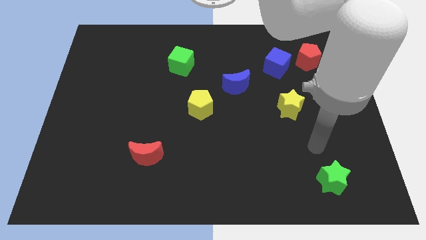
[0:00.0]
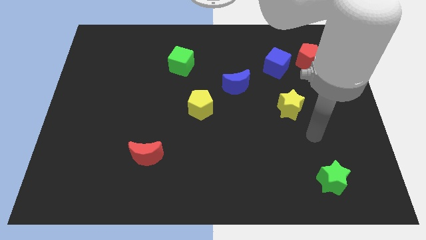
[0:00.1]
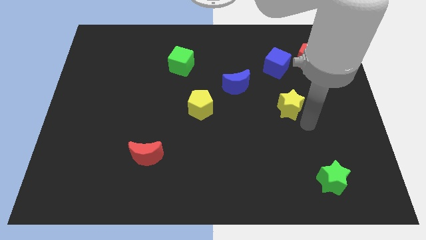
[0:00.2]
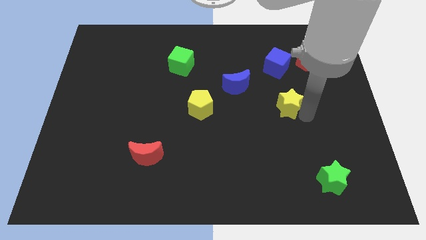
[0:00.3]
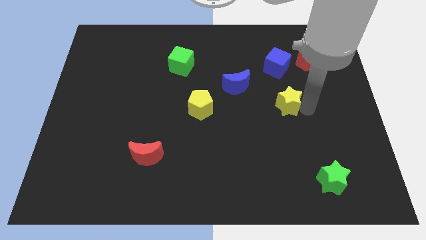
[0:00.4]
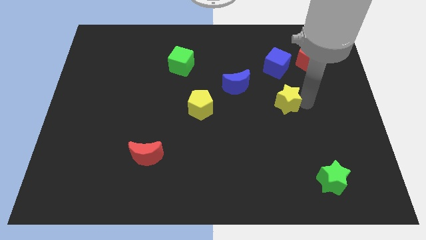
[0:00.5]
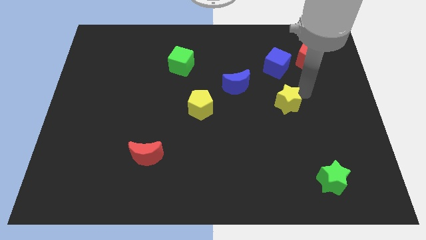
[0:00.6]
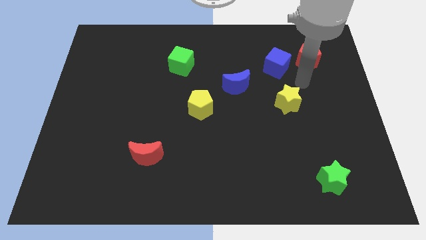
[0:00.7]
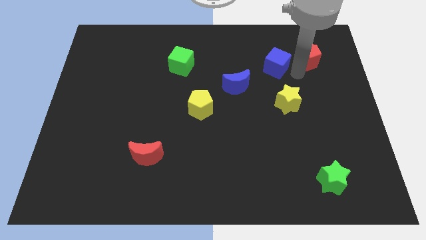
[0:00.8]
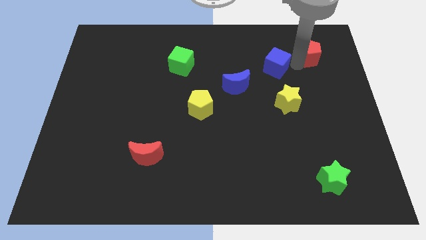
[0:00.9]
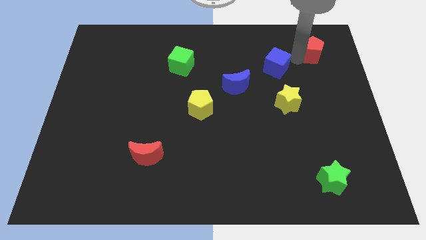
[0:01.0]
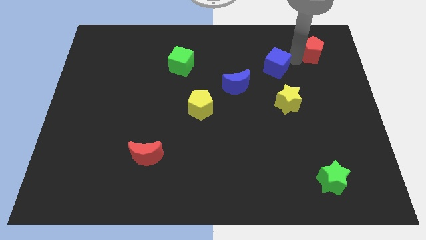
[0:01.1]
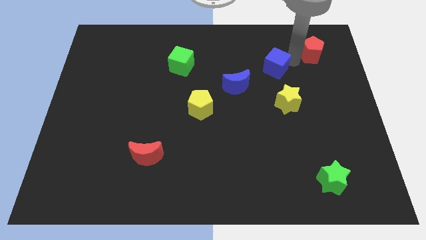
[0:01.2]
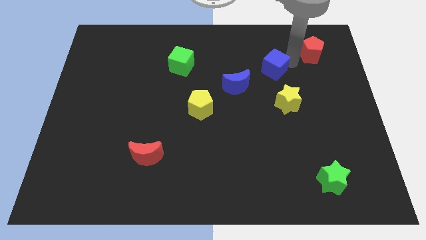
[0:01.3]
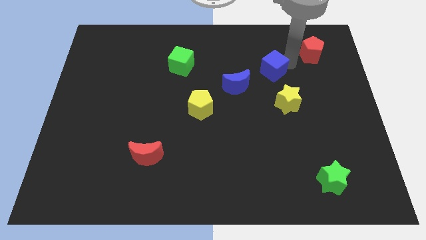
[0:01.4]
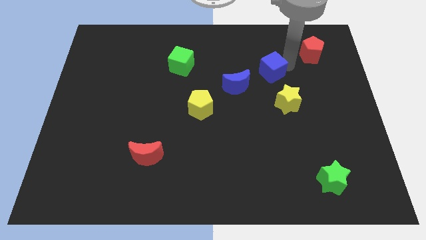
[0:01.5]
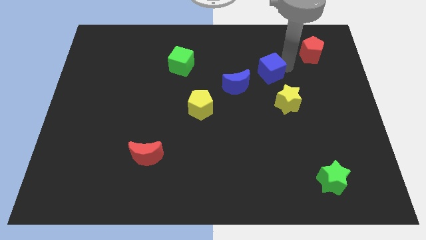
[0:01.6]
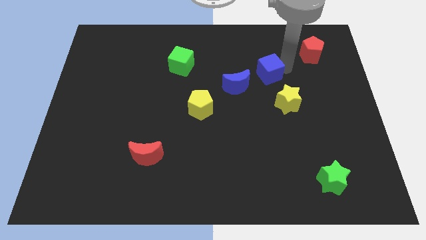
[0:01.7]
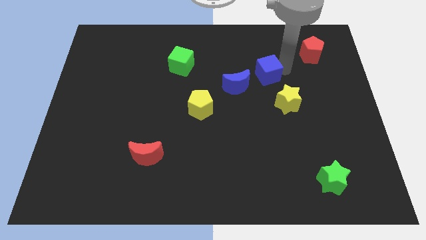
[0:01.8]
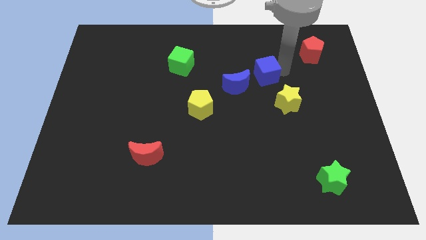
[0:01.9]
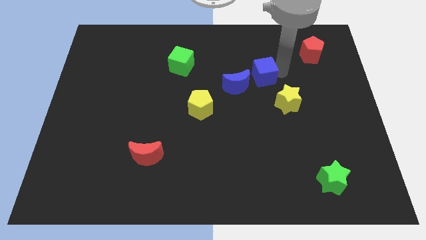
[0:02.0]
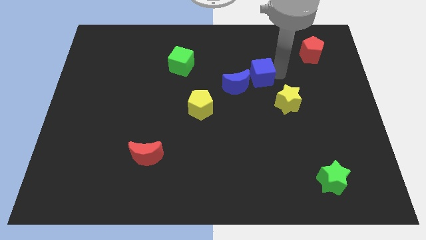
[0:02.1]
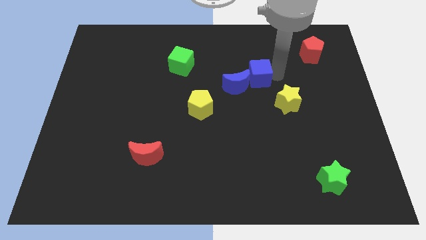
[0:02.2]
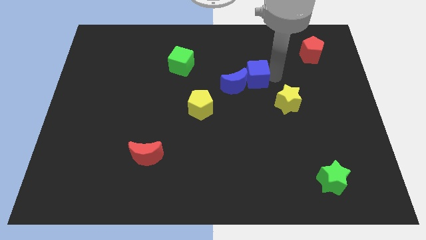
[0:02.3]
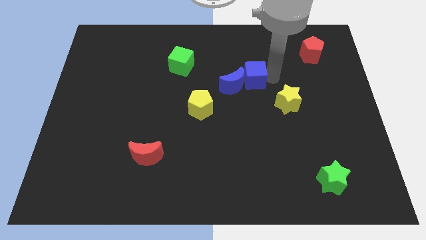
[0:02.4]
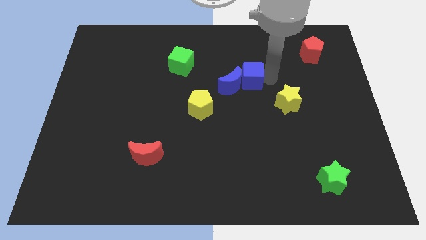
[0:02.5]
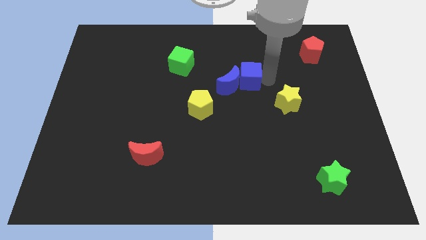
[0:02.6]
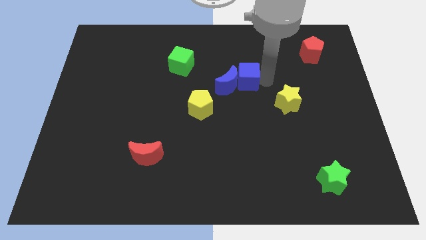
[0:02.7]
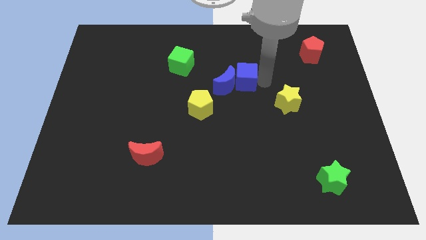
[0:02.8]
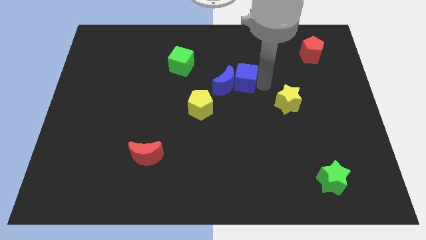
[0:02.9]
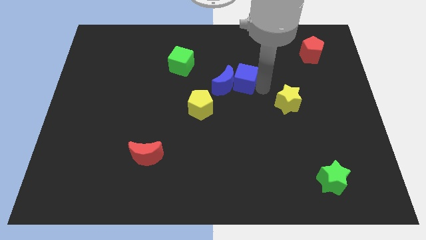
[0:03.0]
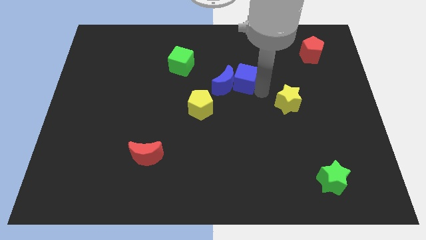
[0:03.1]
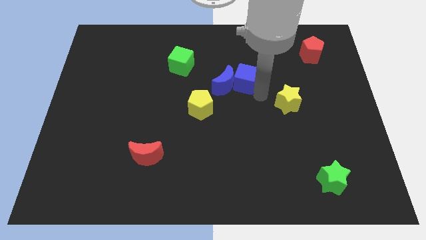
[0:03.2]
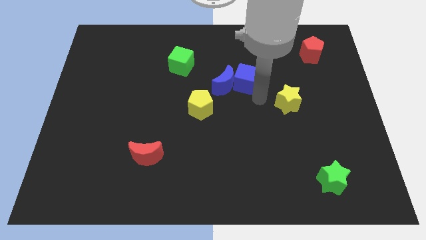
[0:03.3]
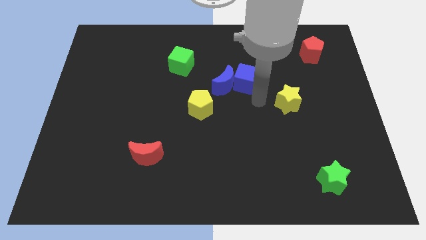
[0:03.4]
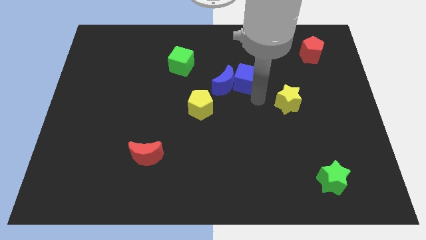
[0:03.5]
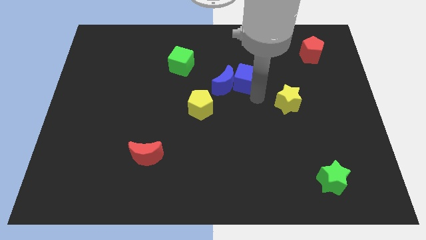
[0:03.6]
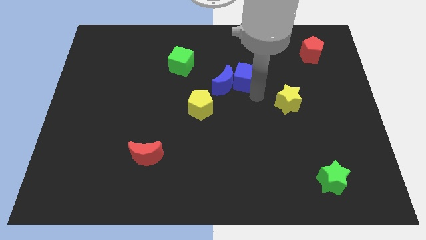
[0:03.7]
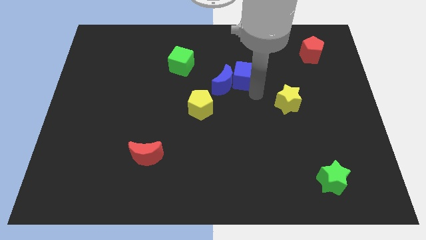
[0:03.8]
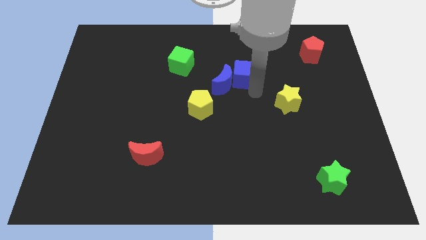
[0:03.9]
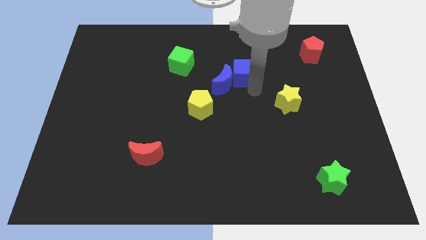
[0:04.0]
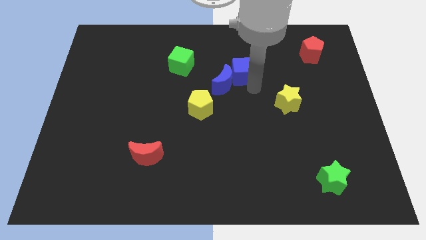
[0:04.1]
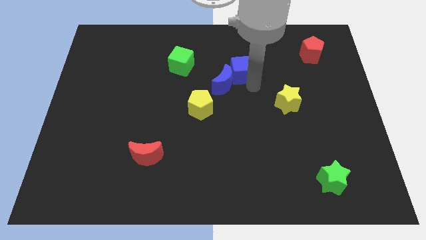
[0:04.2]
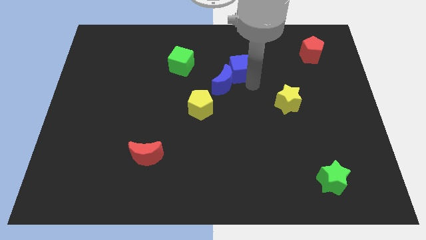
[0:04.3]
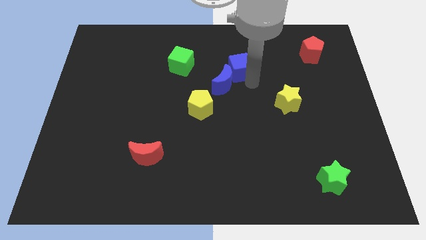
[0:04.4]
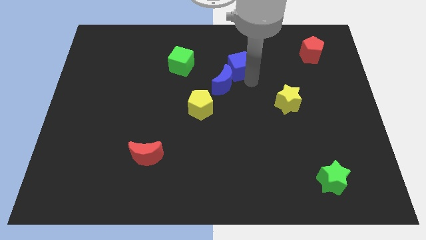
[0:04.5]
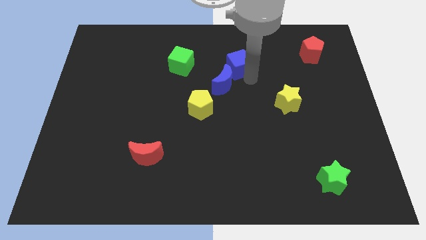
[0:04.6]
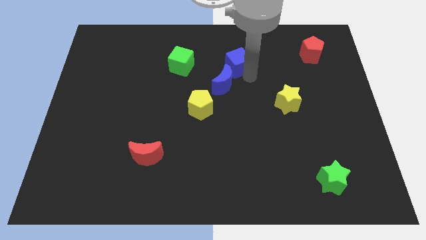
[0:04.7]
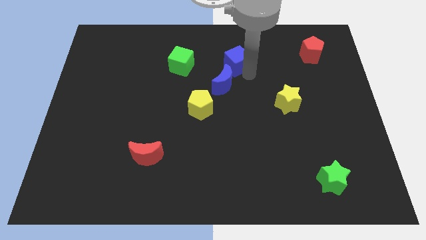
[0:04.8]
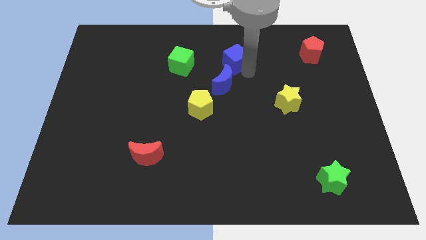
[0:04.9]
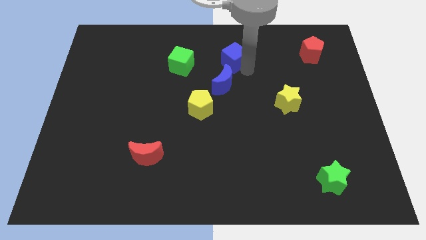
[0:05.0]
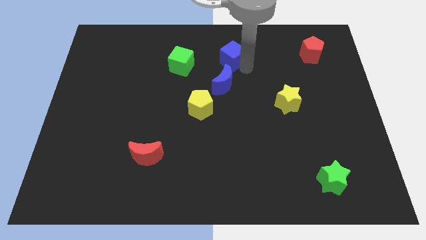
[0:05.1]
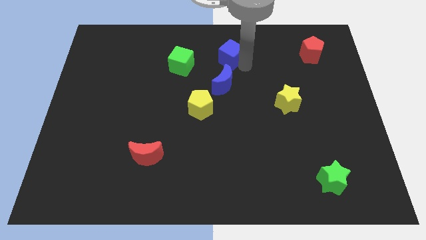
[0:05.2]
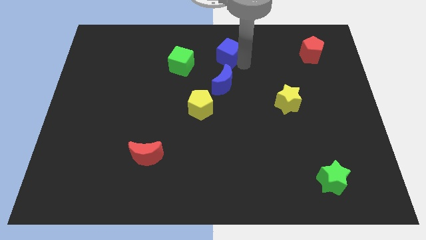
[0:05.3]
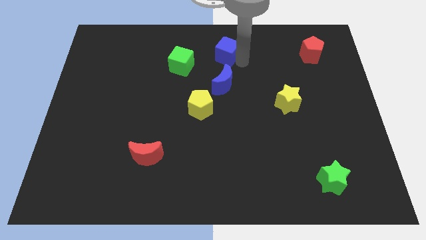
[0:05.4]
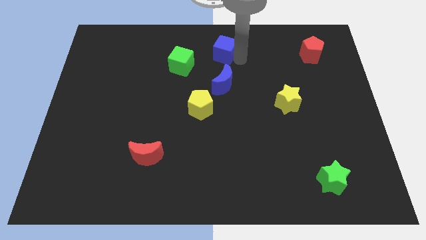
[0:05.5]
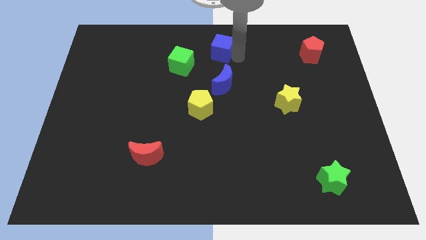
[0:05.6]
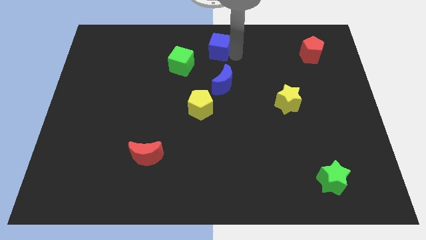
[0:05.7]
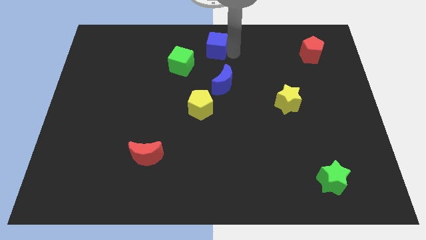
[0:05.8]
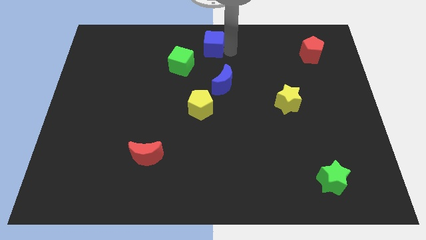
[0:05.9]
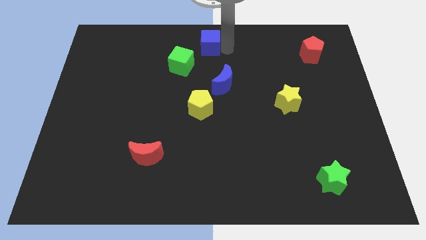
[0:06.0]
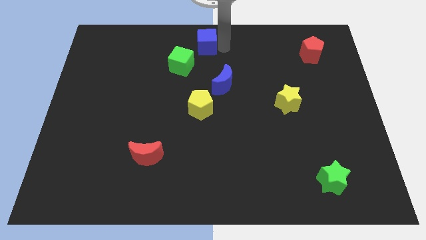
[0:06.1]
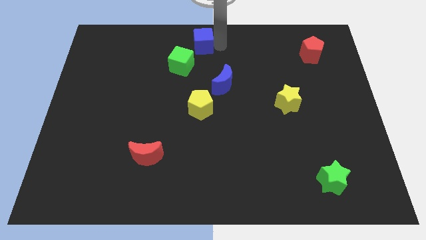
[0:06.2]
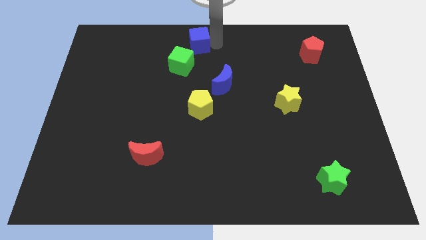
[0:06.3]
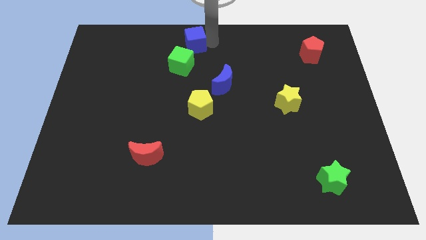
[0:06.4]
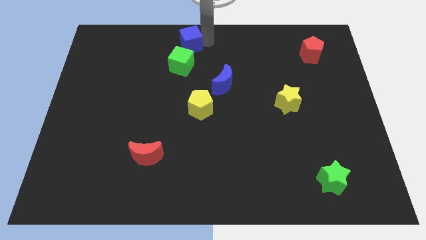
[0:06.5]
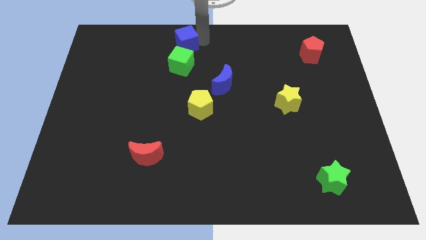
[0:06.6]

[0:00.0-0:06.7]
slide the blue cube to the left

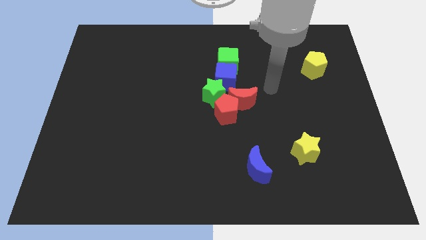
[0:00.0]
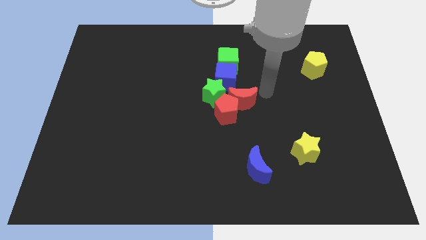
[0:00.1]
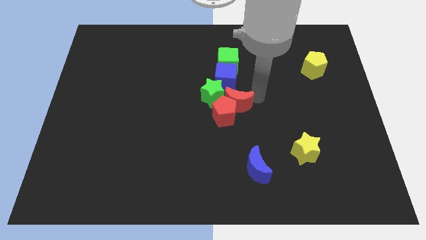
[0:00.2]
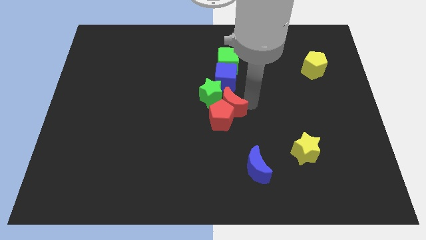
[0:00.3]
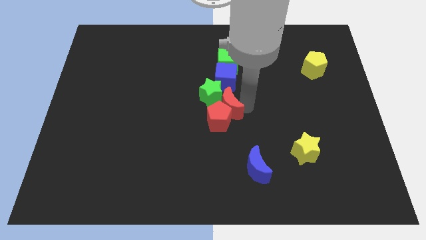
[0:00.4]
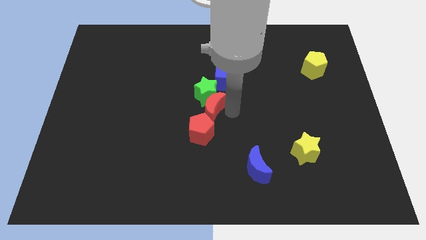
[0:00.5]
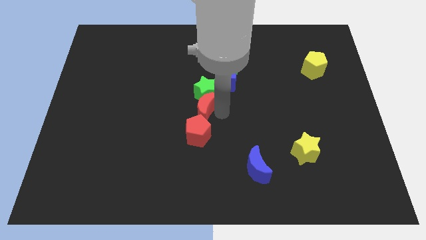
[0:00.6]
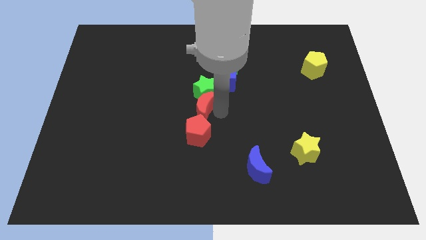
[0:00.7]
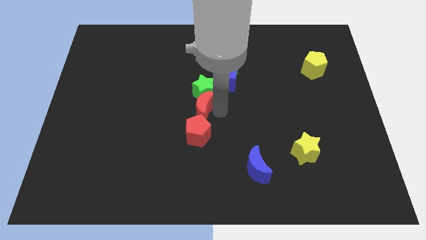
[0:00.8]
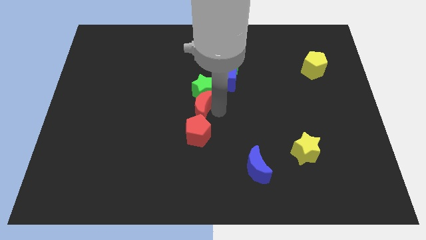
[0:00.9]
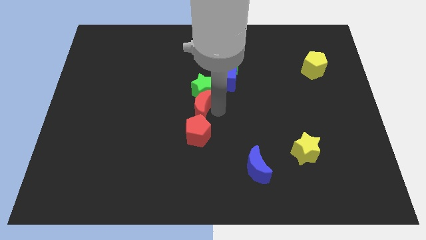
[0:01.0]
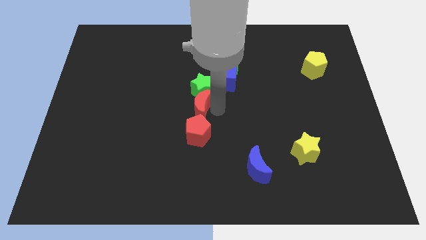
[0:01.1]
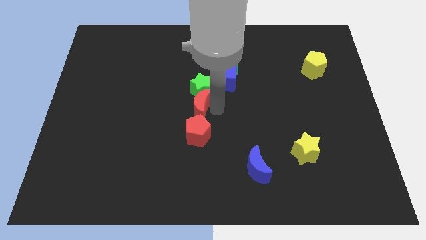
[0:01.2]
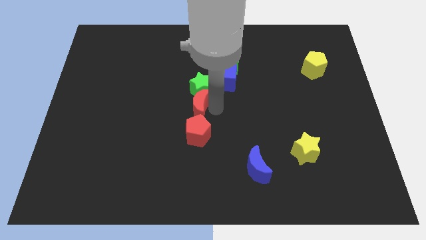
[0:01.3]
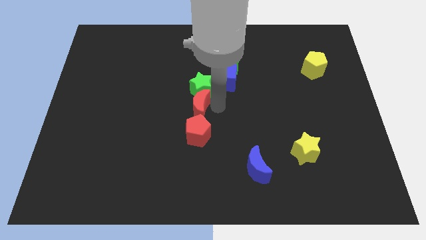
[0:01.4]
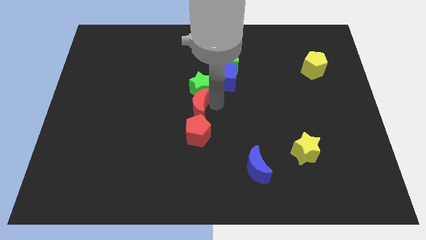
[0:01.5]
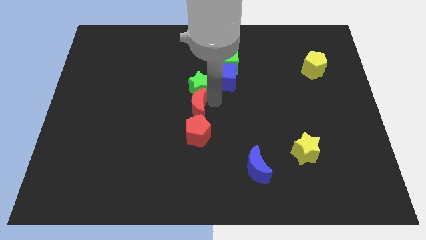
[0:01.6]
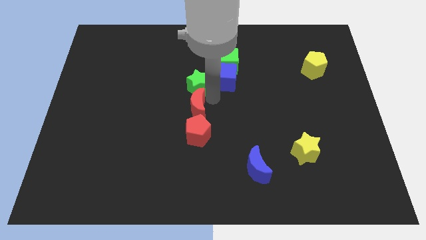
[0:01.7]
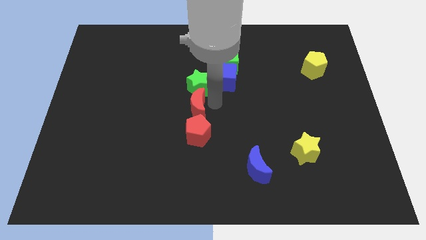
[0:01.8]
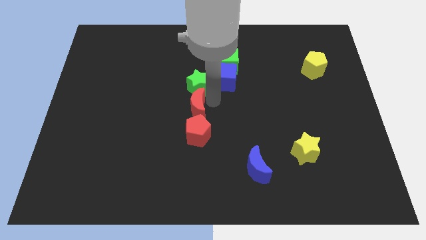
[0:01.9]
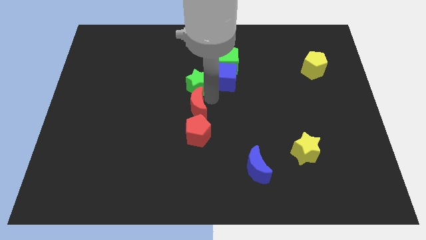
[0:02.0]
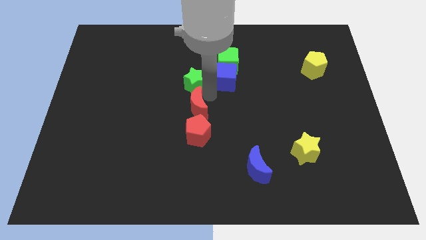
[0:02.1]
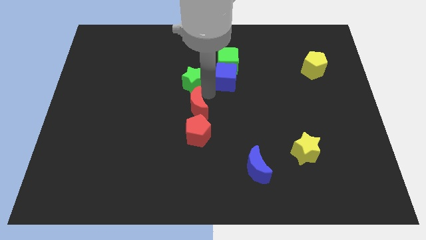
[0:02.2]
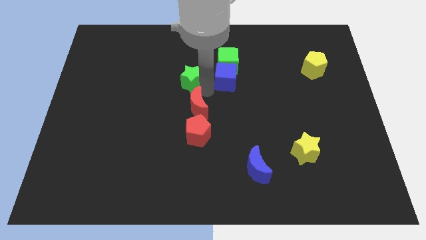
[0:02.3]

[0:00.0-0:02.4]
move the green star slightly diagonally upwards and left
